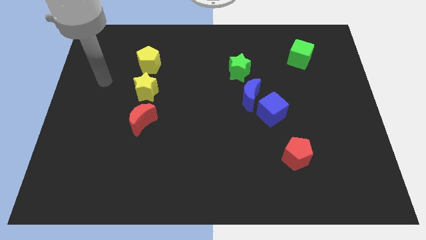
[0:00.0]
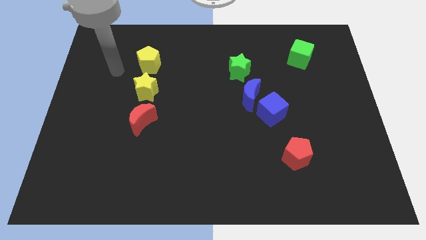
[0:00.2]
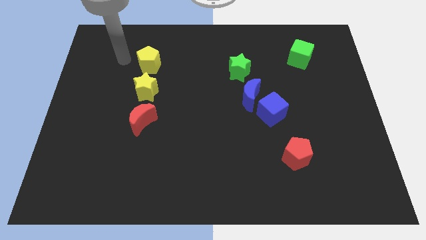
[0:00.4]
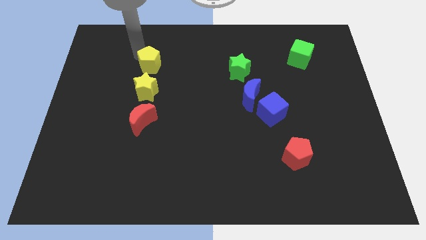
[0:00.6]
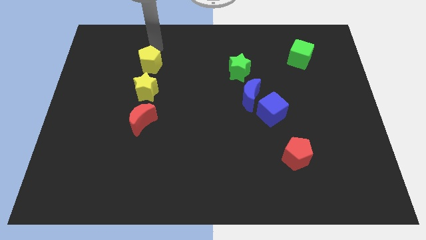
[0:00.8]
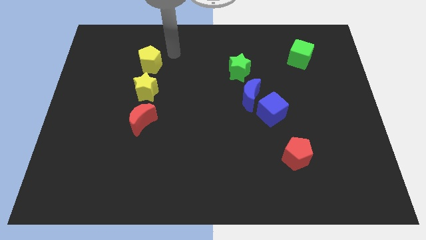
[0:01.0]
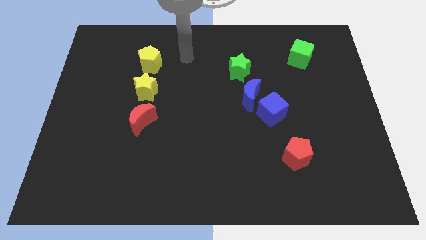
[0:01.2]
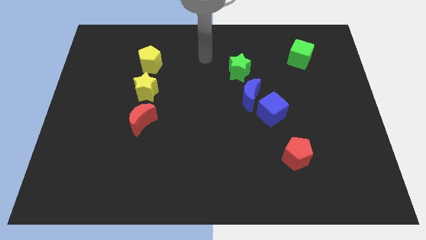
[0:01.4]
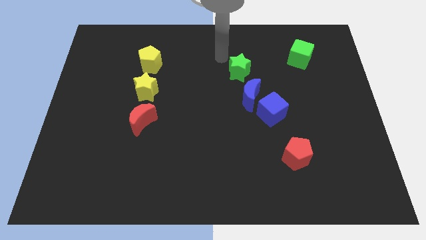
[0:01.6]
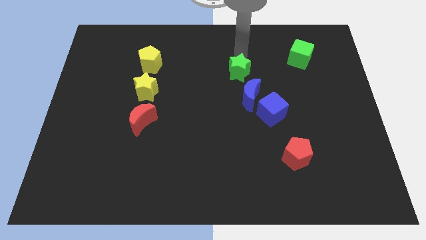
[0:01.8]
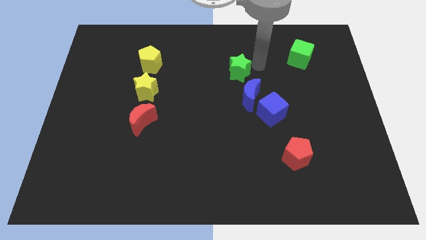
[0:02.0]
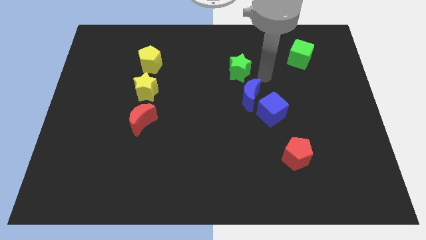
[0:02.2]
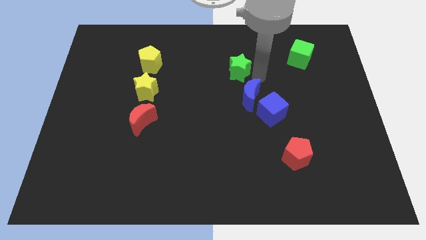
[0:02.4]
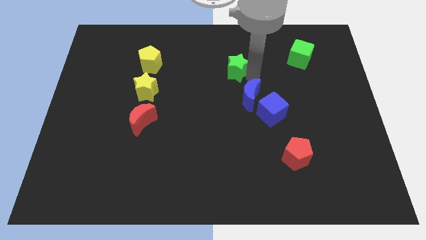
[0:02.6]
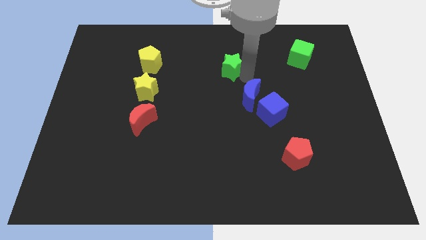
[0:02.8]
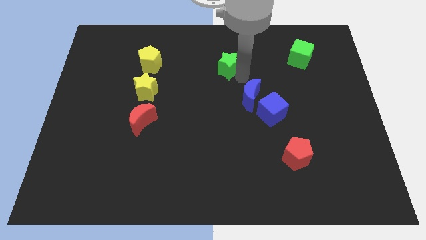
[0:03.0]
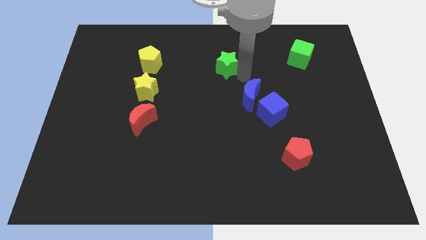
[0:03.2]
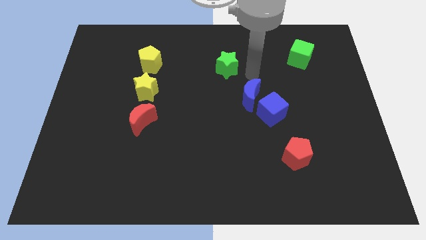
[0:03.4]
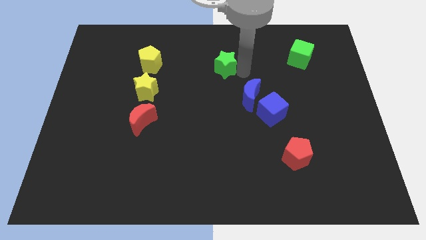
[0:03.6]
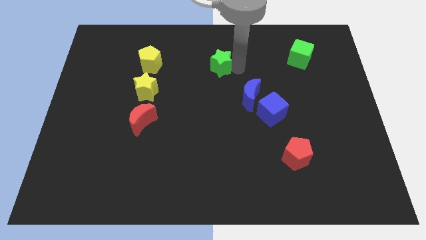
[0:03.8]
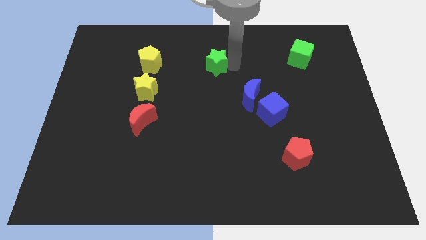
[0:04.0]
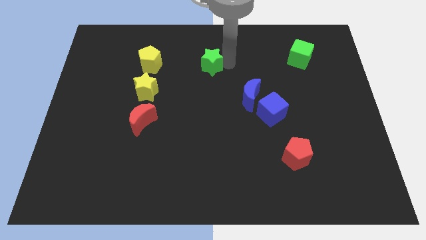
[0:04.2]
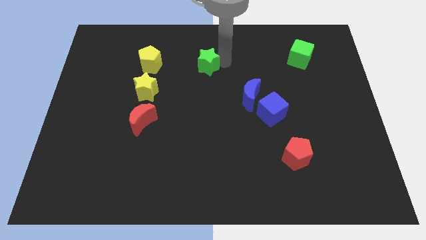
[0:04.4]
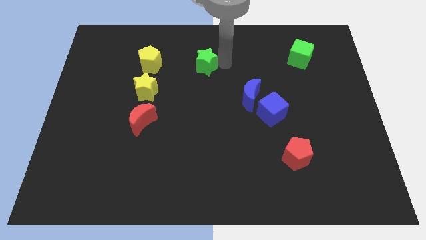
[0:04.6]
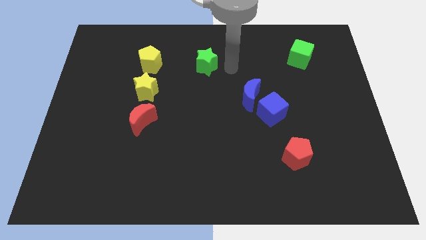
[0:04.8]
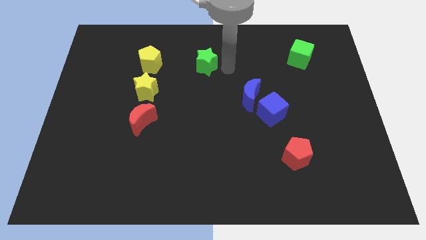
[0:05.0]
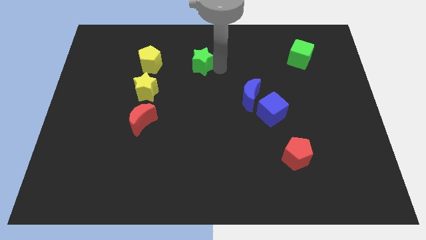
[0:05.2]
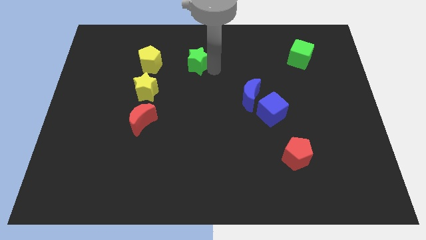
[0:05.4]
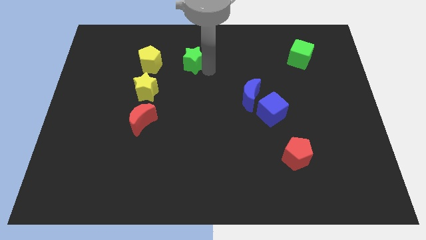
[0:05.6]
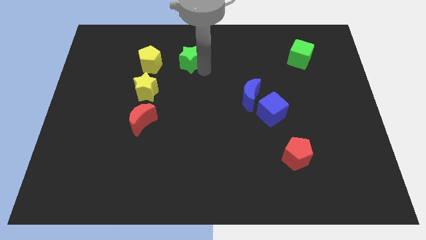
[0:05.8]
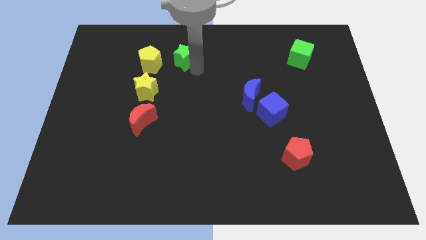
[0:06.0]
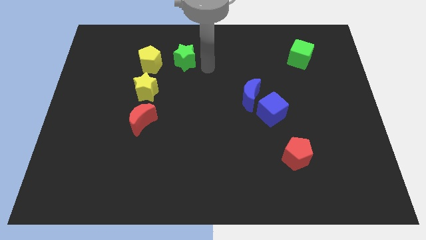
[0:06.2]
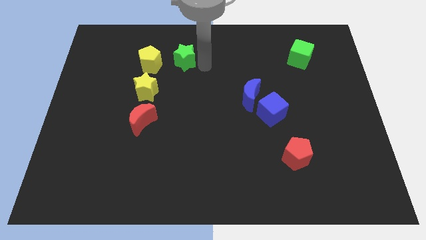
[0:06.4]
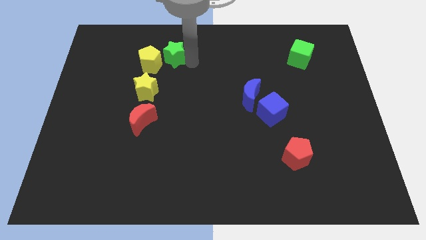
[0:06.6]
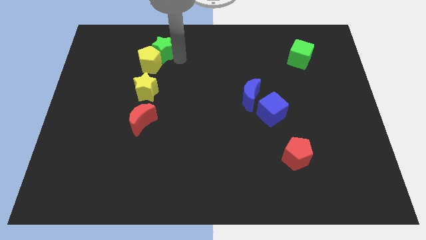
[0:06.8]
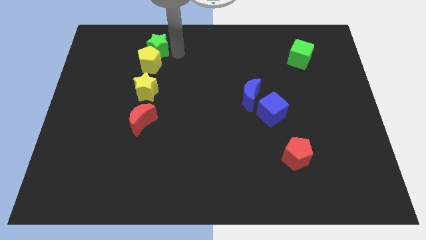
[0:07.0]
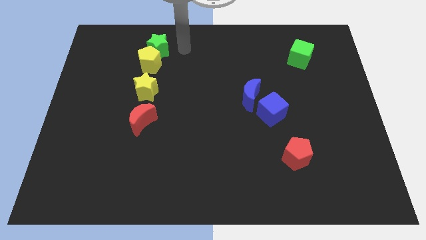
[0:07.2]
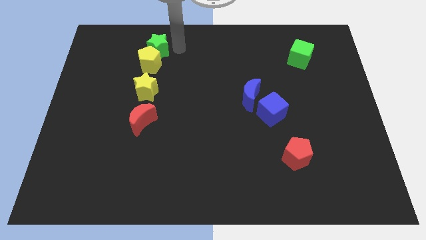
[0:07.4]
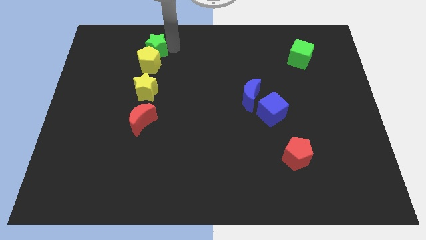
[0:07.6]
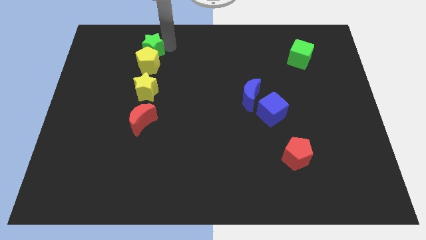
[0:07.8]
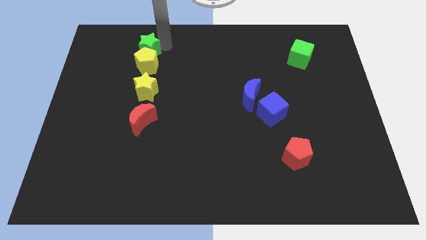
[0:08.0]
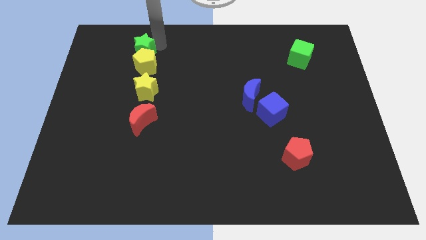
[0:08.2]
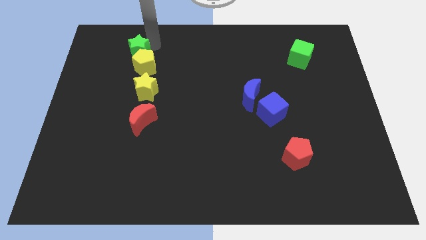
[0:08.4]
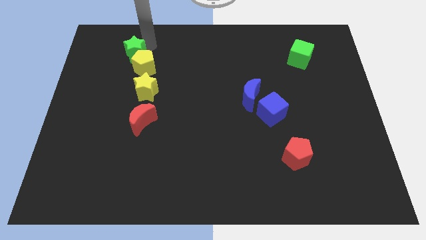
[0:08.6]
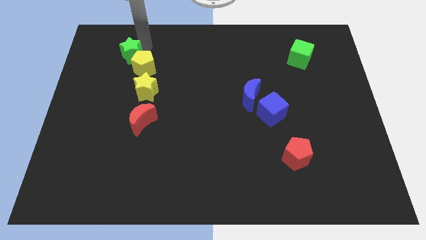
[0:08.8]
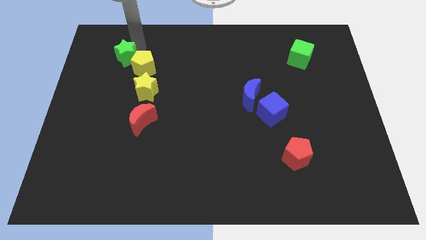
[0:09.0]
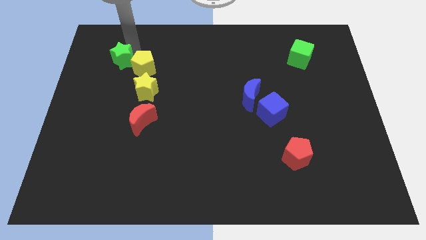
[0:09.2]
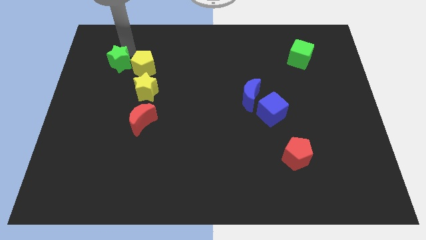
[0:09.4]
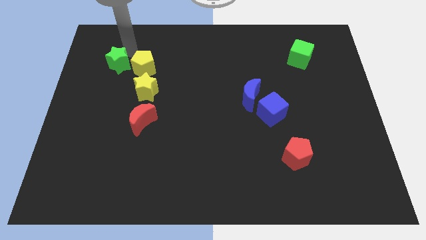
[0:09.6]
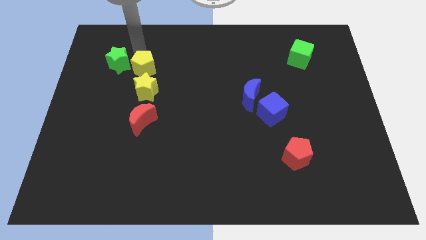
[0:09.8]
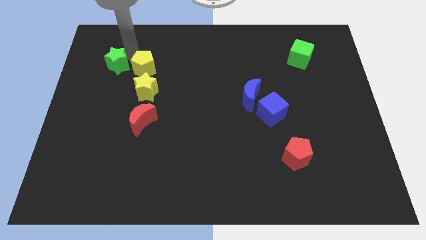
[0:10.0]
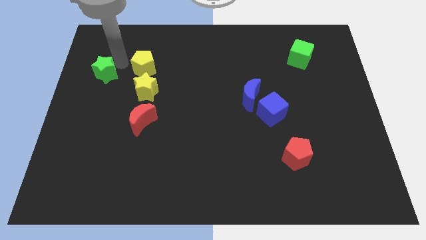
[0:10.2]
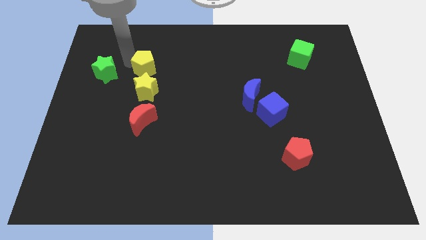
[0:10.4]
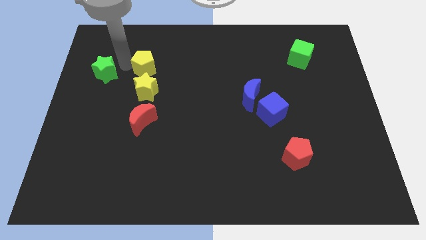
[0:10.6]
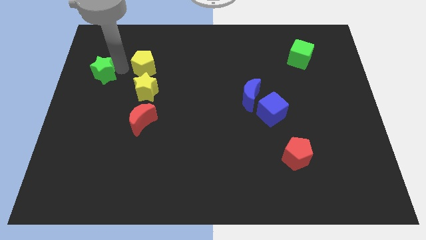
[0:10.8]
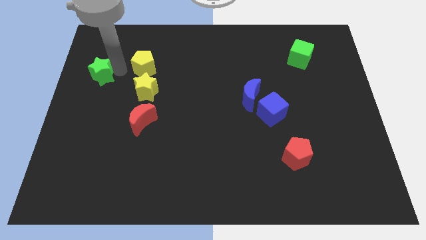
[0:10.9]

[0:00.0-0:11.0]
slide the green star to the left side

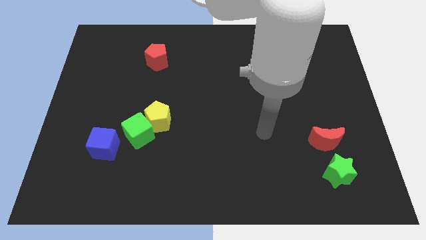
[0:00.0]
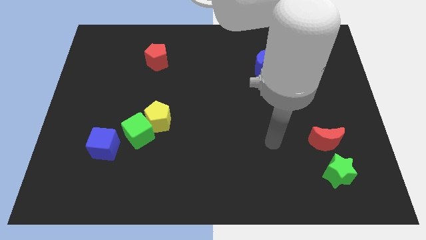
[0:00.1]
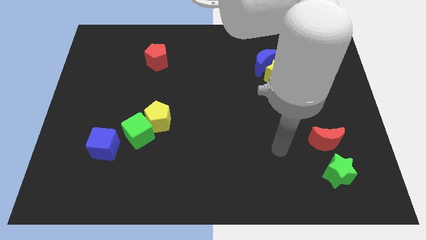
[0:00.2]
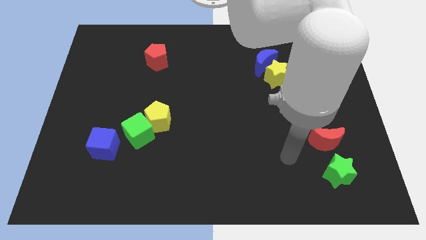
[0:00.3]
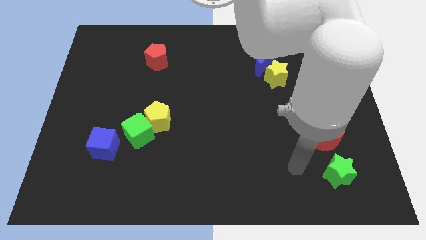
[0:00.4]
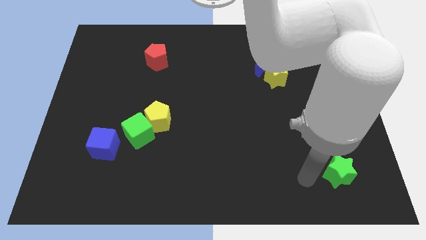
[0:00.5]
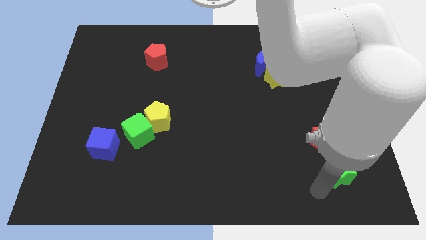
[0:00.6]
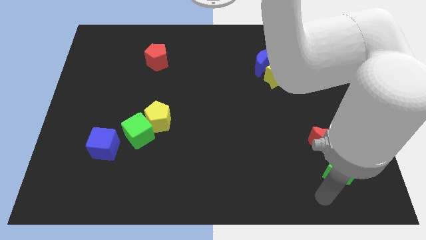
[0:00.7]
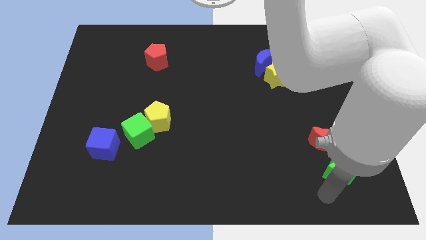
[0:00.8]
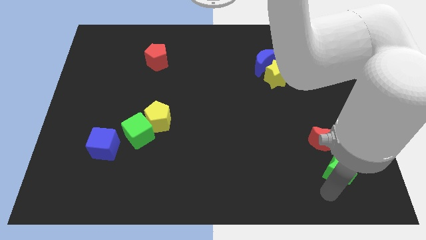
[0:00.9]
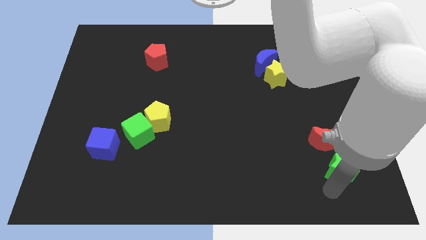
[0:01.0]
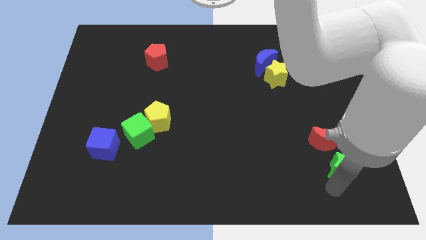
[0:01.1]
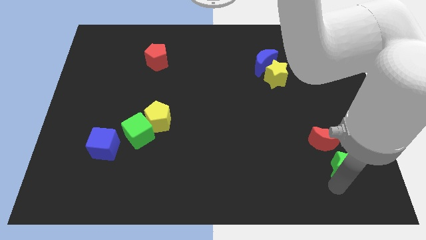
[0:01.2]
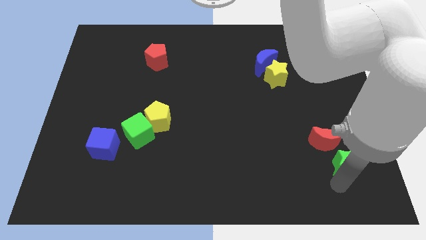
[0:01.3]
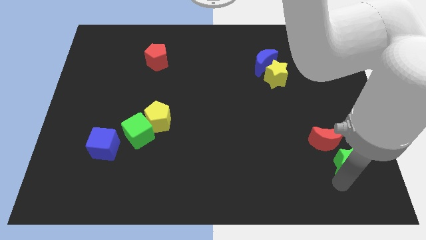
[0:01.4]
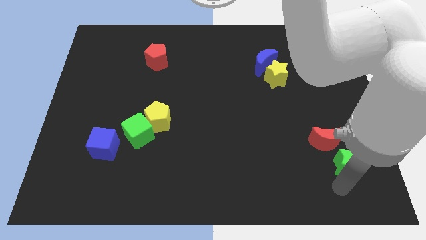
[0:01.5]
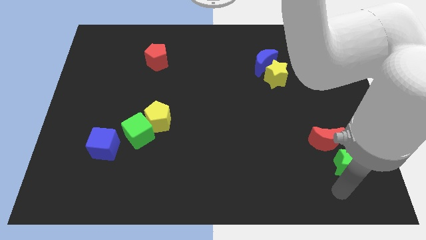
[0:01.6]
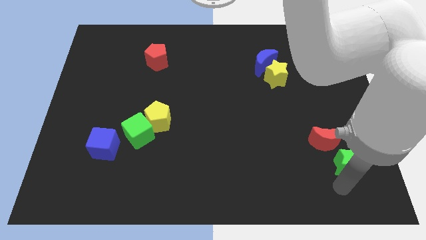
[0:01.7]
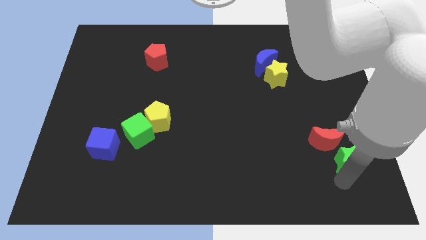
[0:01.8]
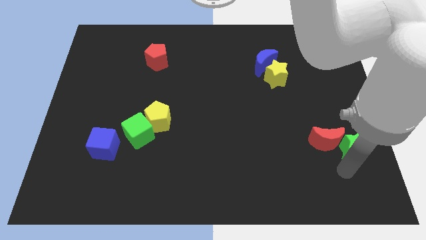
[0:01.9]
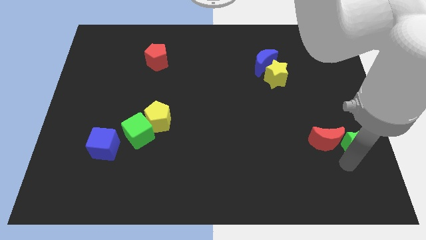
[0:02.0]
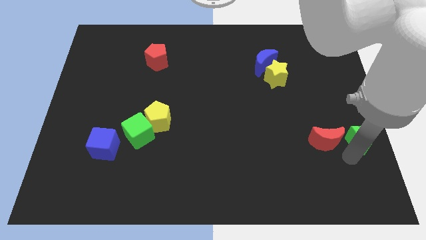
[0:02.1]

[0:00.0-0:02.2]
put the green star to the right side
